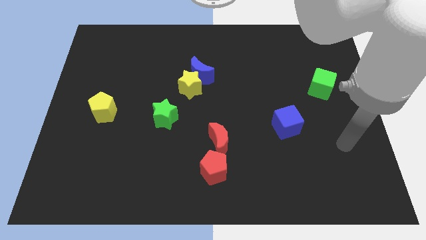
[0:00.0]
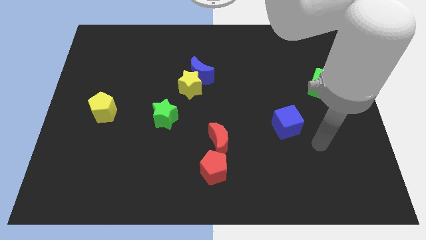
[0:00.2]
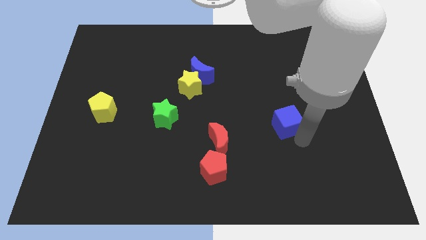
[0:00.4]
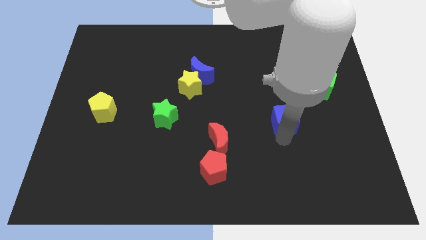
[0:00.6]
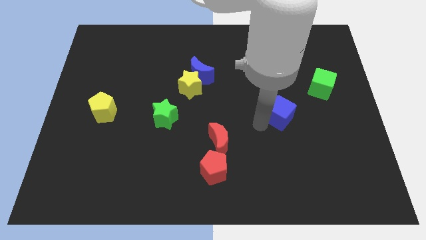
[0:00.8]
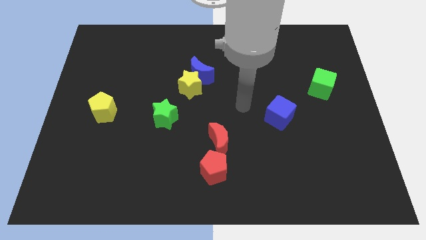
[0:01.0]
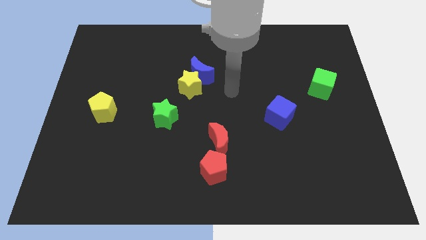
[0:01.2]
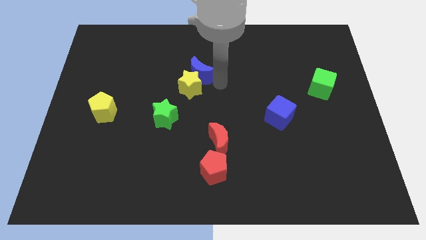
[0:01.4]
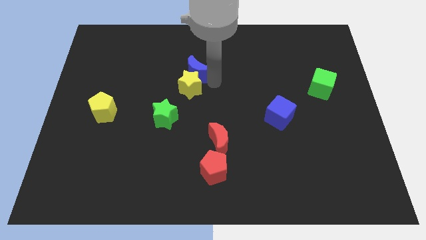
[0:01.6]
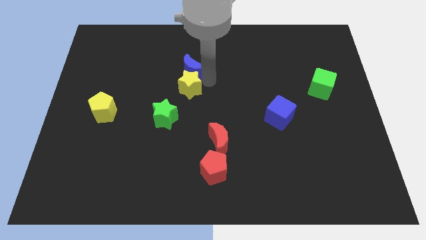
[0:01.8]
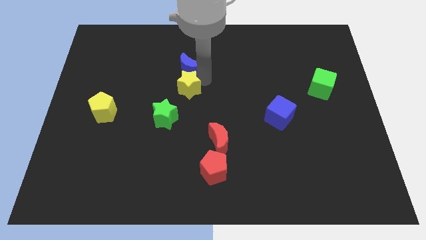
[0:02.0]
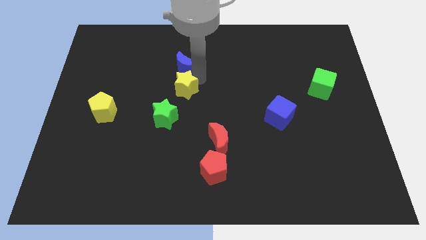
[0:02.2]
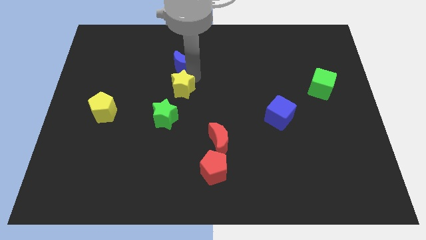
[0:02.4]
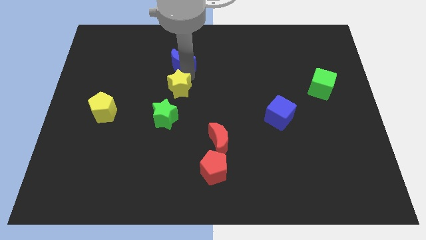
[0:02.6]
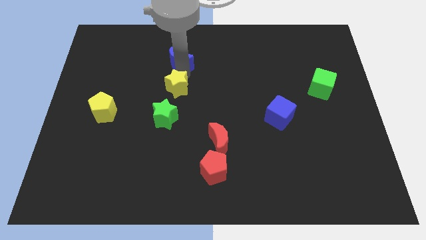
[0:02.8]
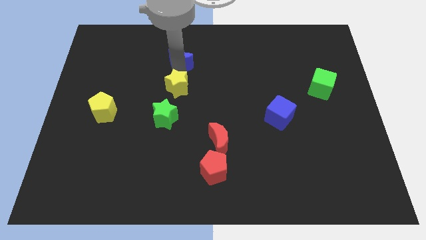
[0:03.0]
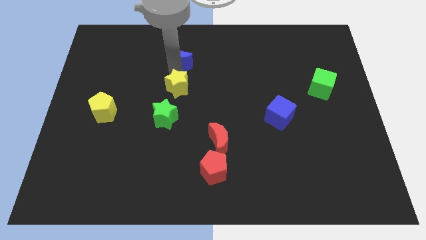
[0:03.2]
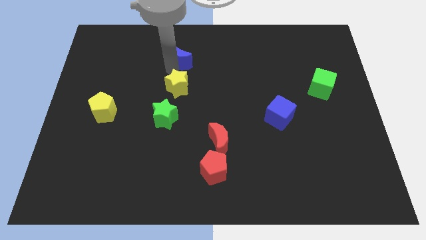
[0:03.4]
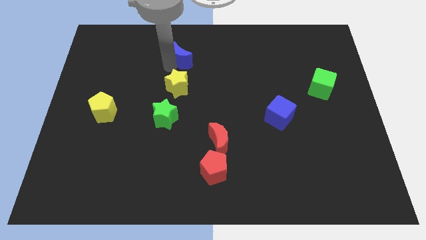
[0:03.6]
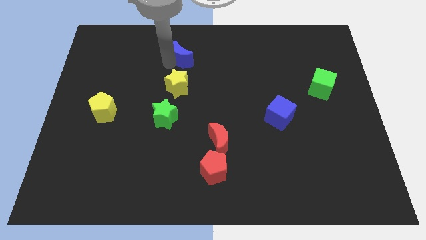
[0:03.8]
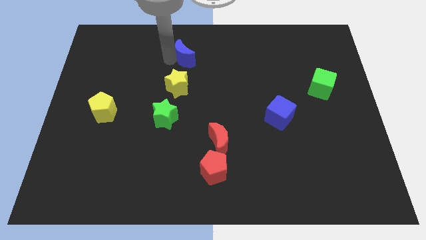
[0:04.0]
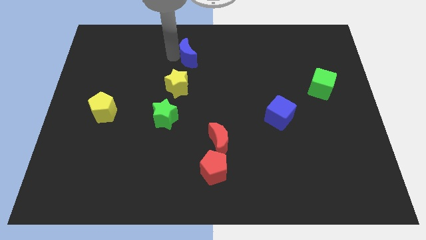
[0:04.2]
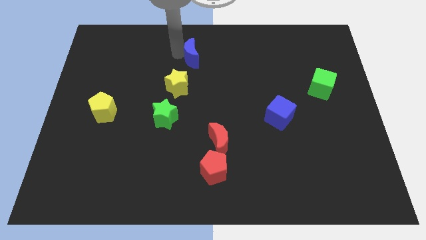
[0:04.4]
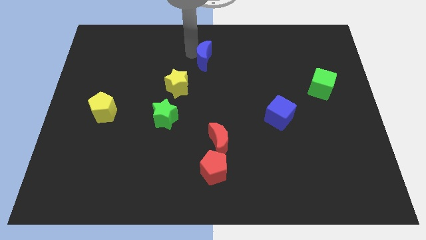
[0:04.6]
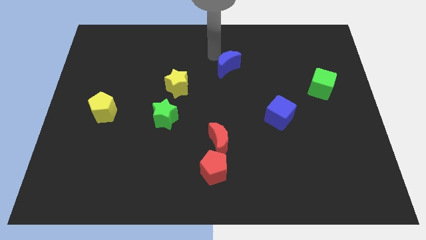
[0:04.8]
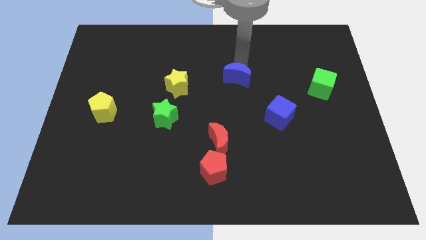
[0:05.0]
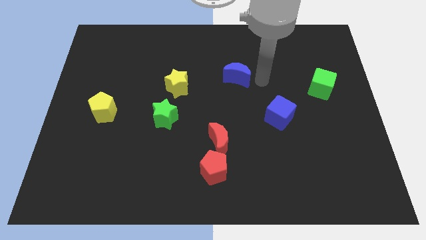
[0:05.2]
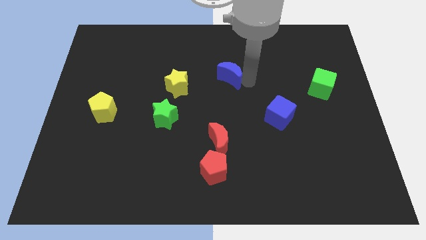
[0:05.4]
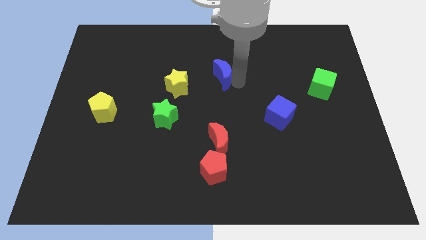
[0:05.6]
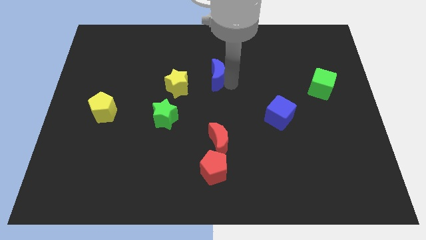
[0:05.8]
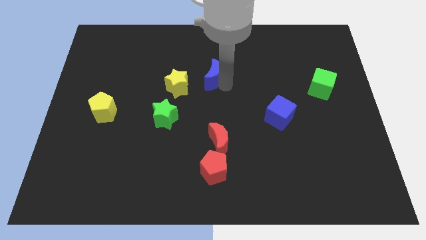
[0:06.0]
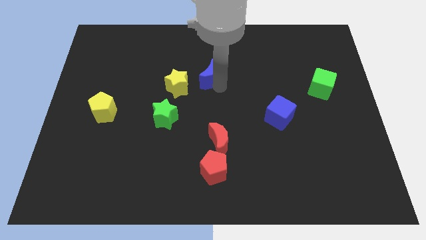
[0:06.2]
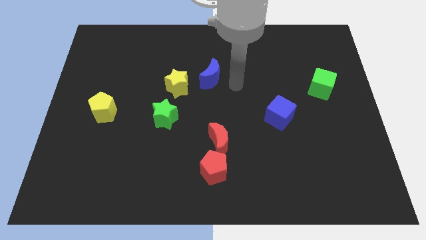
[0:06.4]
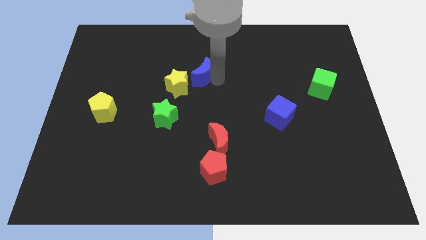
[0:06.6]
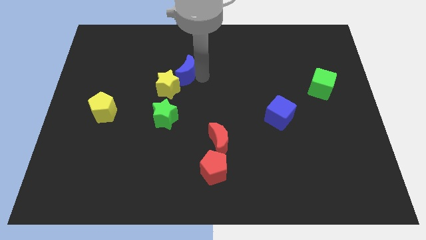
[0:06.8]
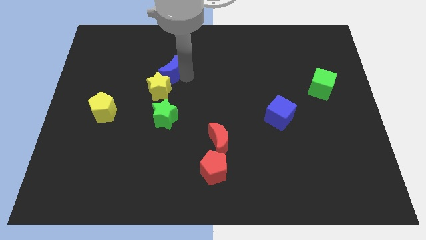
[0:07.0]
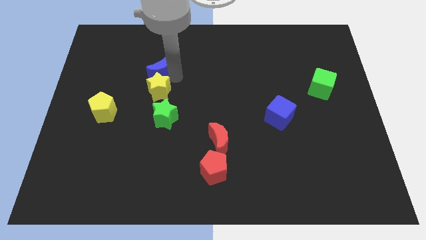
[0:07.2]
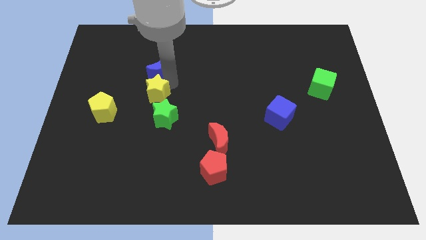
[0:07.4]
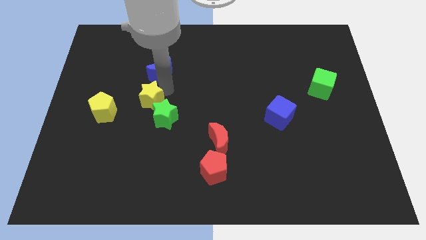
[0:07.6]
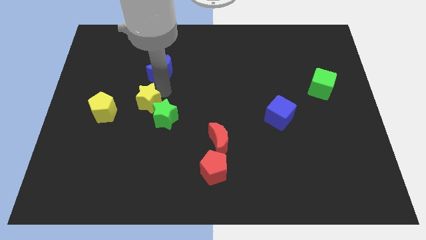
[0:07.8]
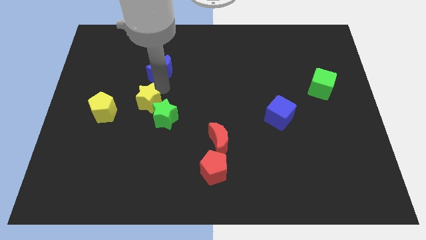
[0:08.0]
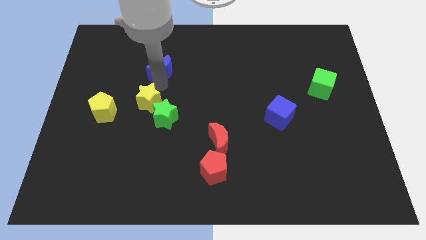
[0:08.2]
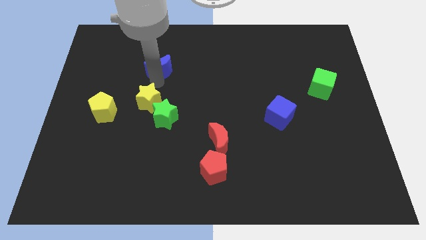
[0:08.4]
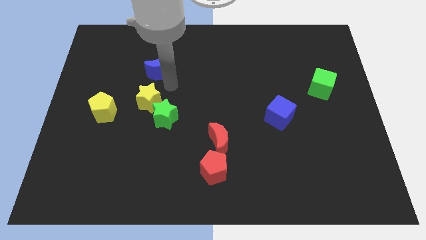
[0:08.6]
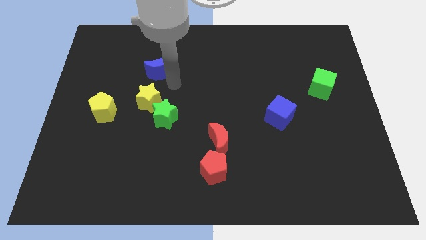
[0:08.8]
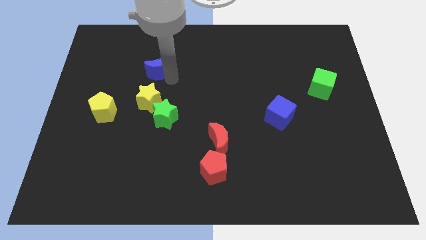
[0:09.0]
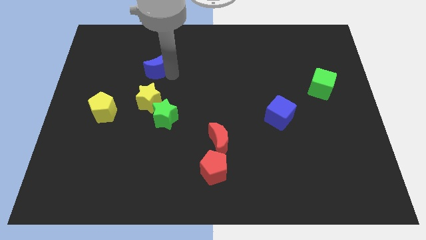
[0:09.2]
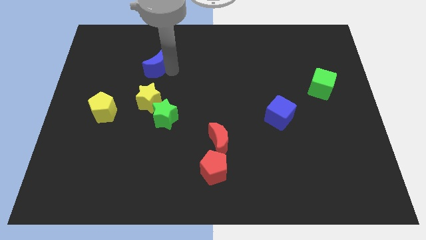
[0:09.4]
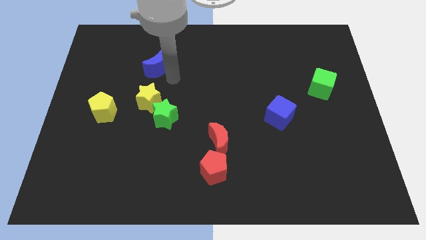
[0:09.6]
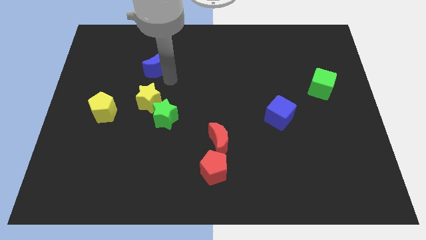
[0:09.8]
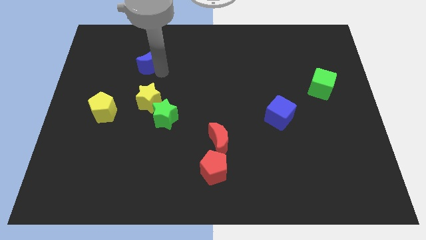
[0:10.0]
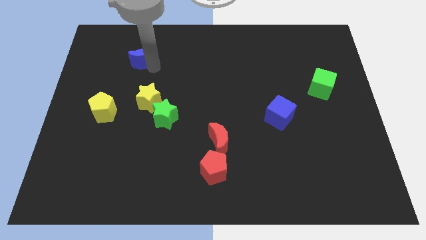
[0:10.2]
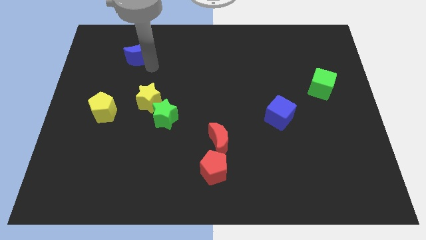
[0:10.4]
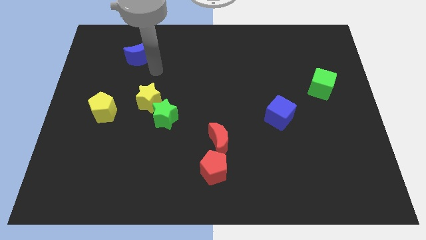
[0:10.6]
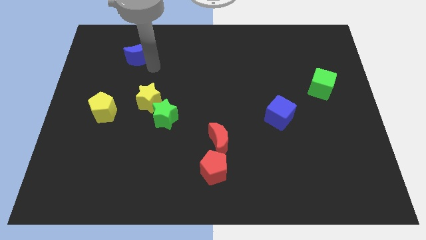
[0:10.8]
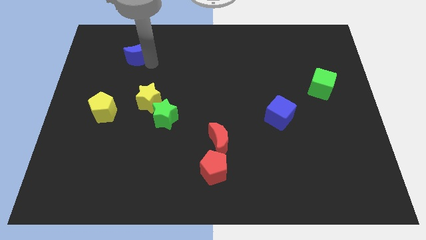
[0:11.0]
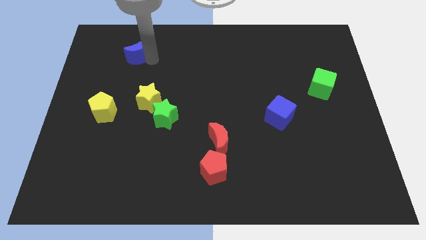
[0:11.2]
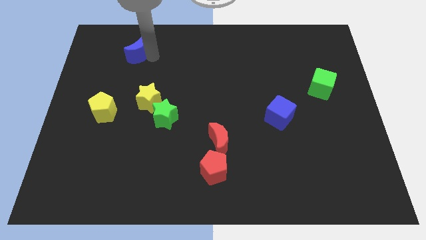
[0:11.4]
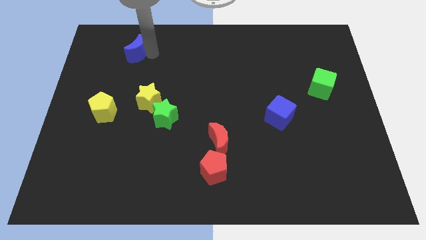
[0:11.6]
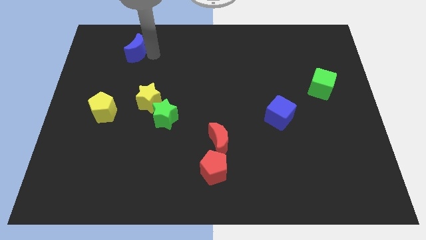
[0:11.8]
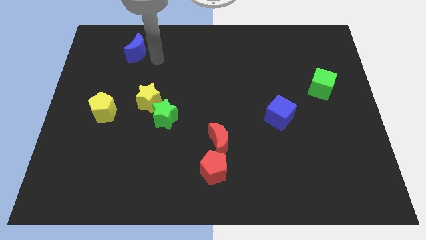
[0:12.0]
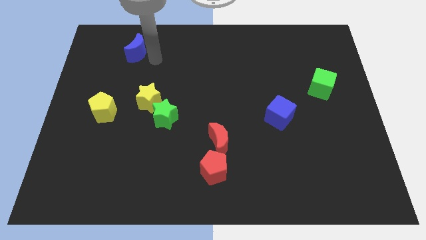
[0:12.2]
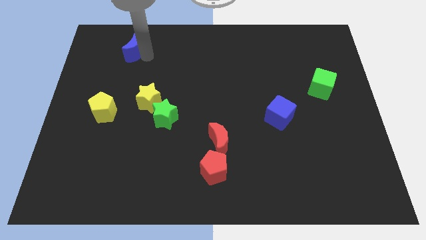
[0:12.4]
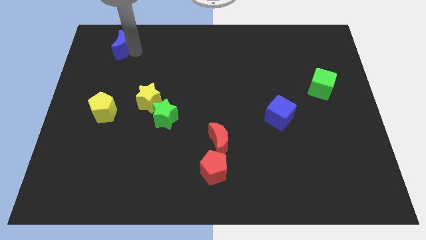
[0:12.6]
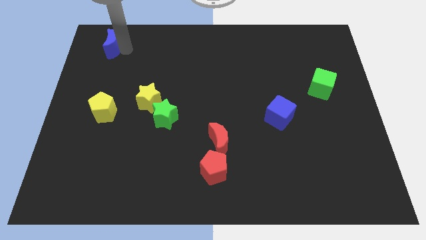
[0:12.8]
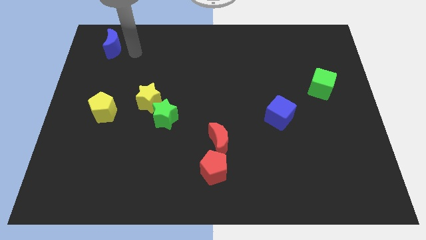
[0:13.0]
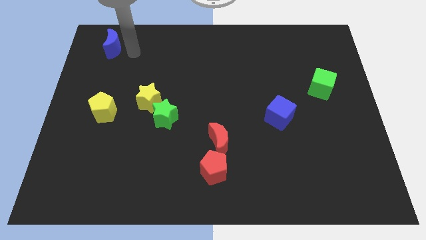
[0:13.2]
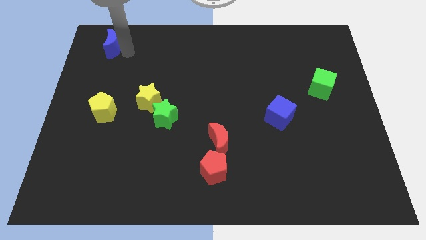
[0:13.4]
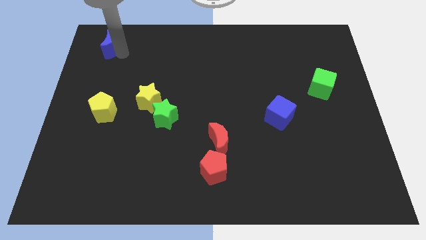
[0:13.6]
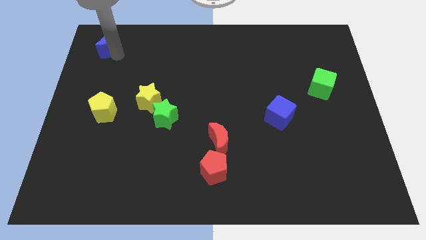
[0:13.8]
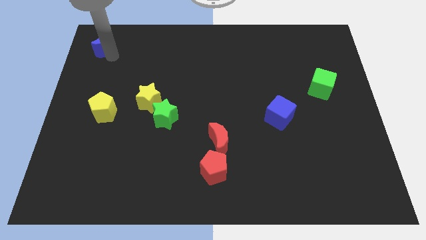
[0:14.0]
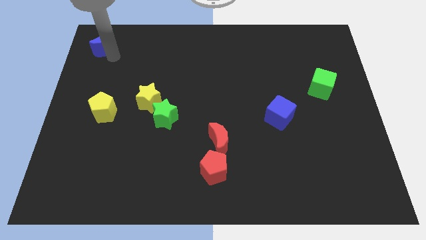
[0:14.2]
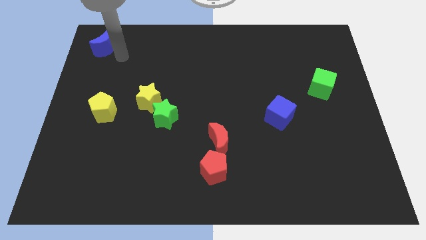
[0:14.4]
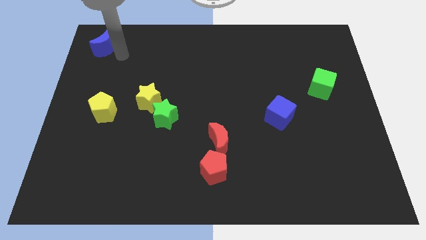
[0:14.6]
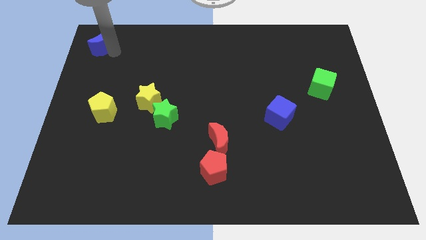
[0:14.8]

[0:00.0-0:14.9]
move the blue moon to the top left of the board

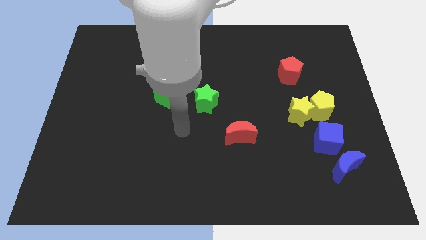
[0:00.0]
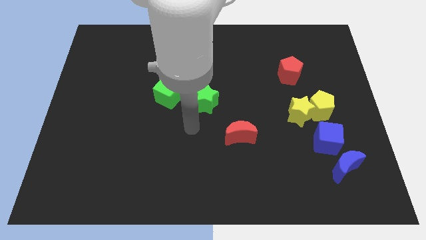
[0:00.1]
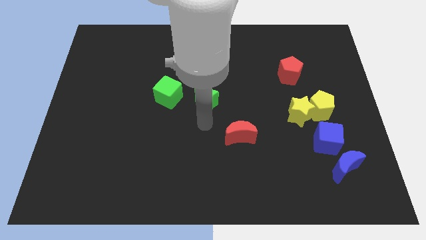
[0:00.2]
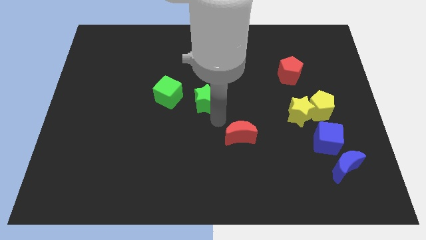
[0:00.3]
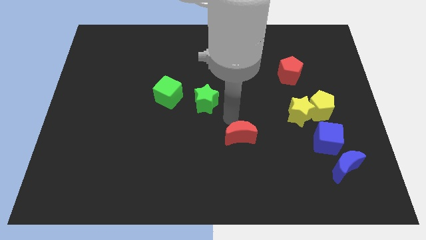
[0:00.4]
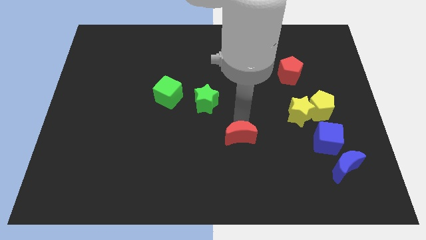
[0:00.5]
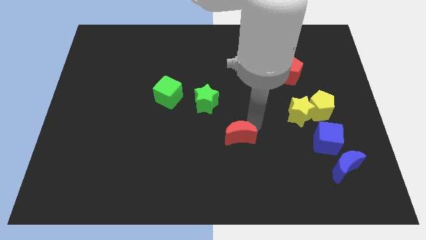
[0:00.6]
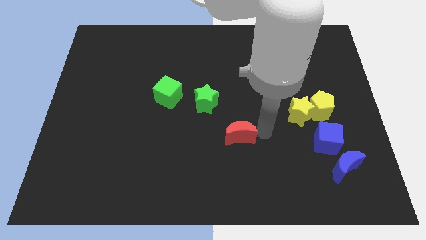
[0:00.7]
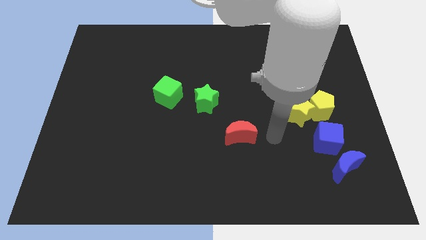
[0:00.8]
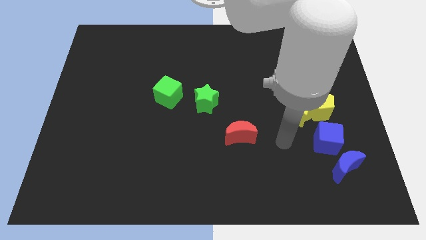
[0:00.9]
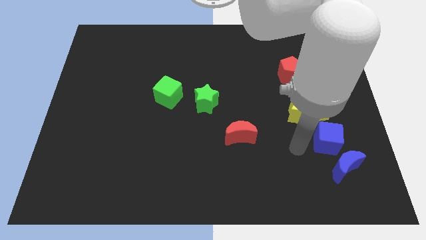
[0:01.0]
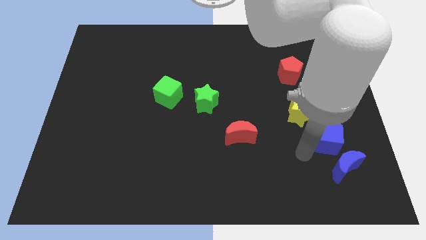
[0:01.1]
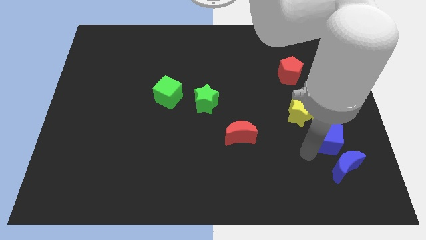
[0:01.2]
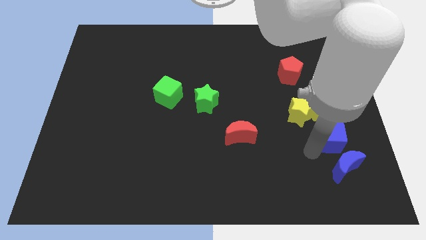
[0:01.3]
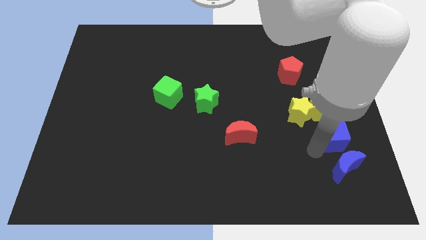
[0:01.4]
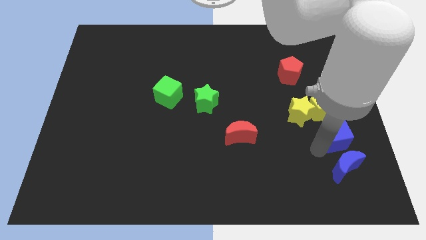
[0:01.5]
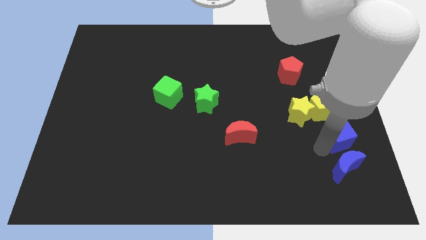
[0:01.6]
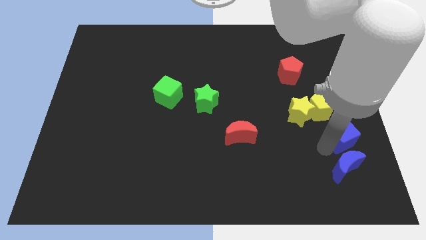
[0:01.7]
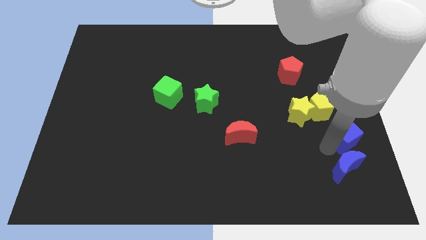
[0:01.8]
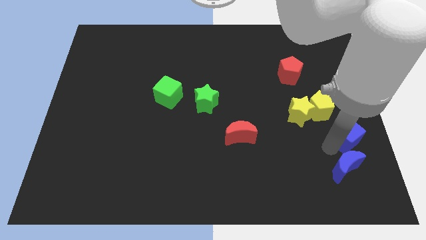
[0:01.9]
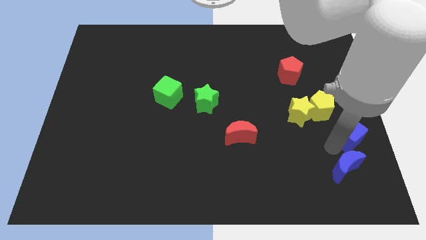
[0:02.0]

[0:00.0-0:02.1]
put the blue cube to the right side
